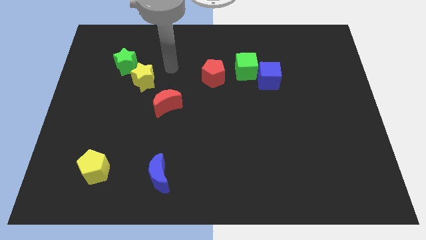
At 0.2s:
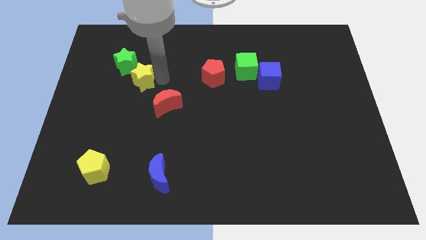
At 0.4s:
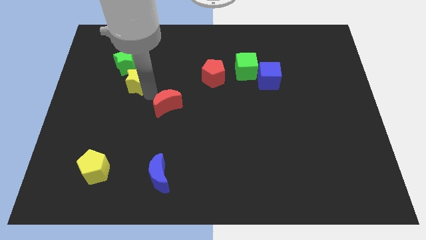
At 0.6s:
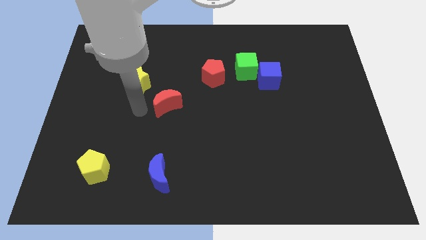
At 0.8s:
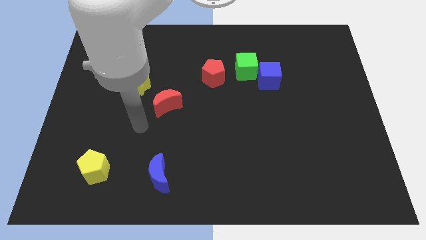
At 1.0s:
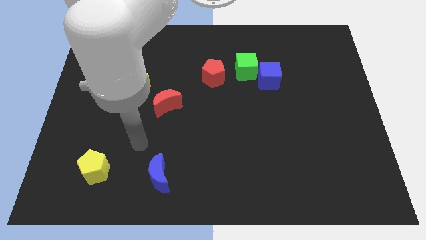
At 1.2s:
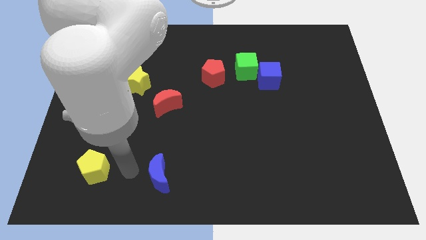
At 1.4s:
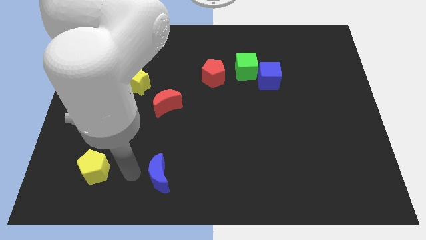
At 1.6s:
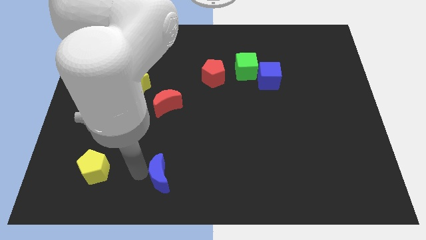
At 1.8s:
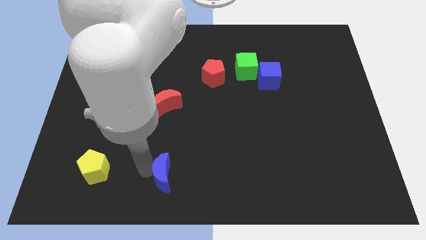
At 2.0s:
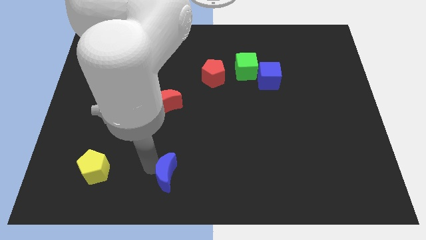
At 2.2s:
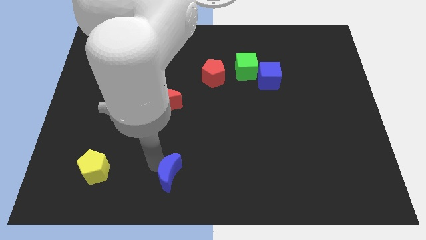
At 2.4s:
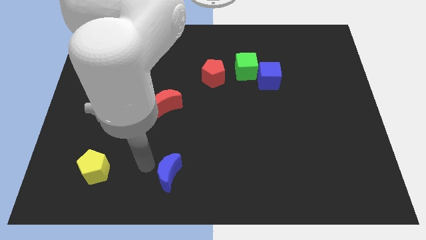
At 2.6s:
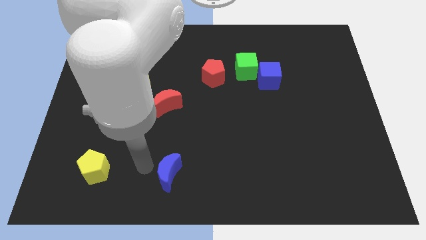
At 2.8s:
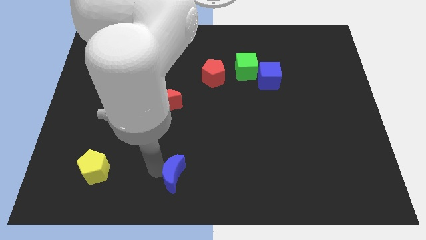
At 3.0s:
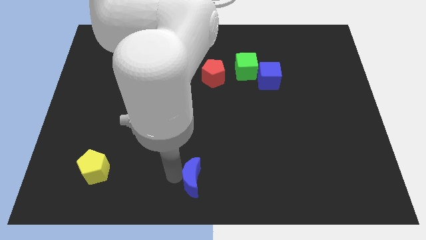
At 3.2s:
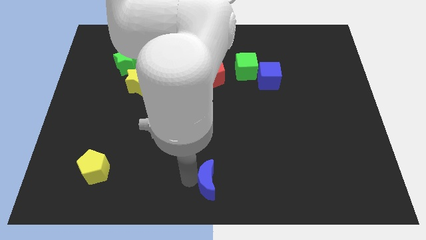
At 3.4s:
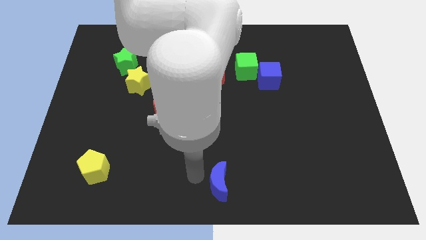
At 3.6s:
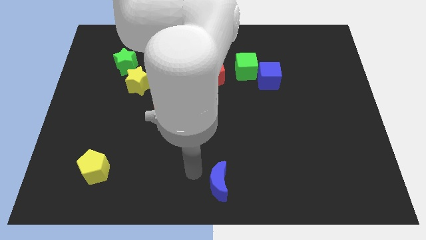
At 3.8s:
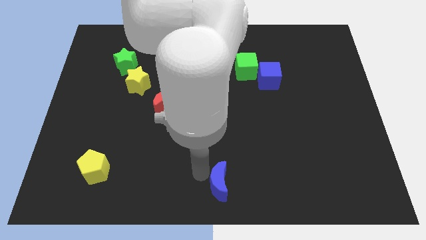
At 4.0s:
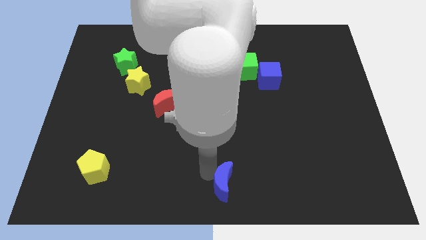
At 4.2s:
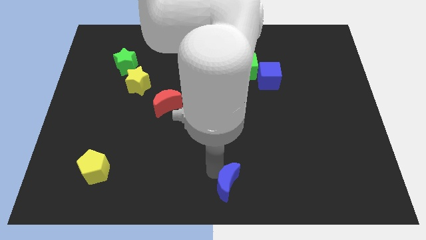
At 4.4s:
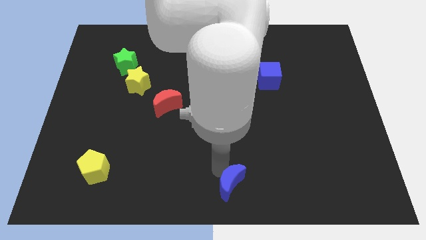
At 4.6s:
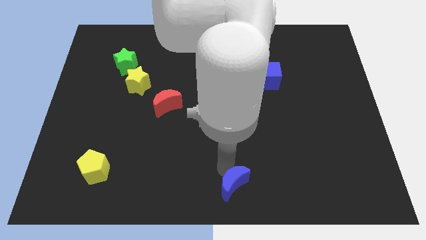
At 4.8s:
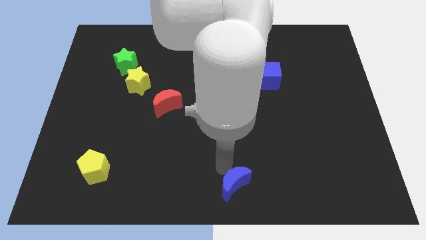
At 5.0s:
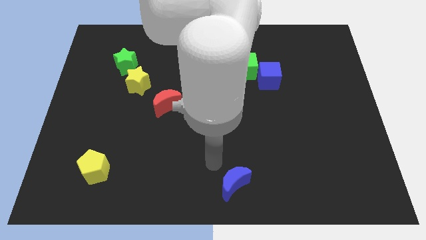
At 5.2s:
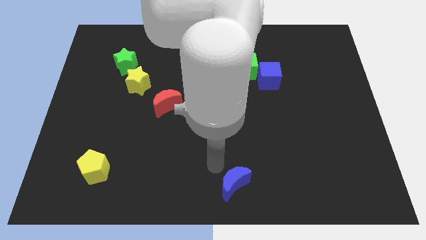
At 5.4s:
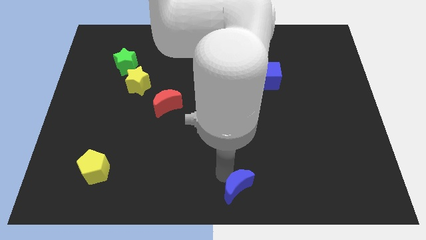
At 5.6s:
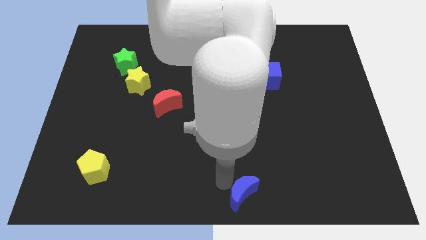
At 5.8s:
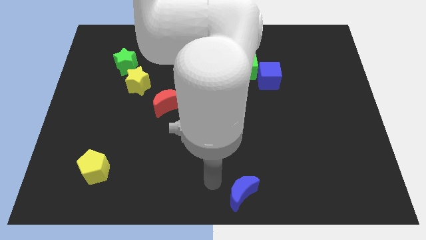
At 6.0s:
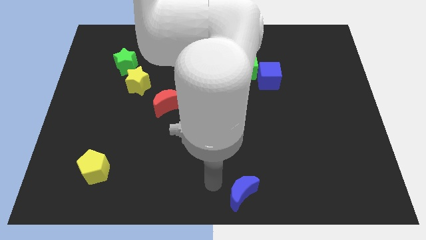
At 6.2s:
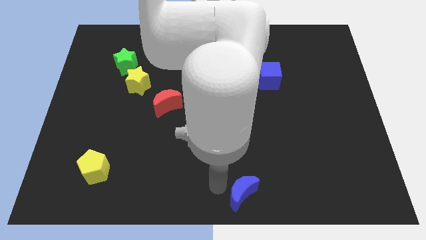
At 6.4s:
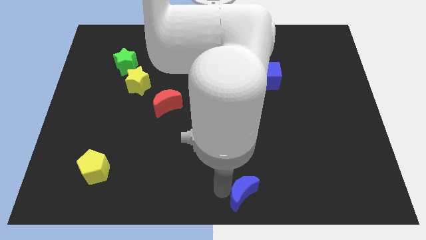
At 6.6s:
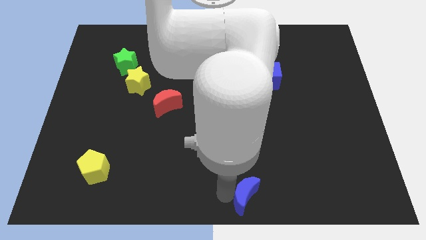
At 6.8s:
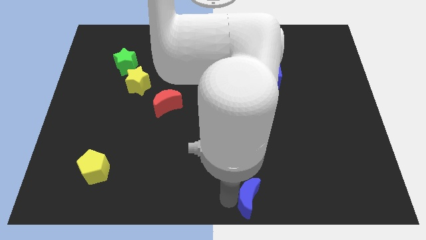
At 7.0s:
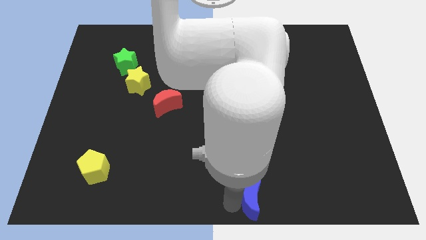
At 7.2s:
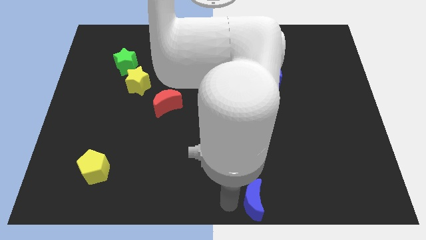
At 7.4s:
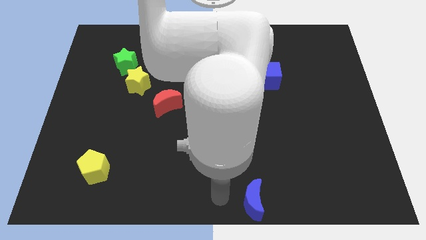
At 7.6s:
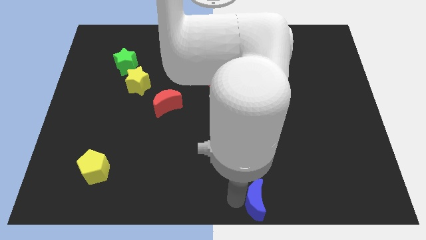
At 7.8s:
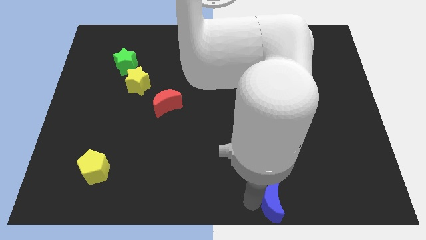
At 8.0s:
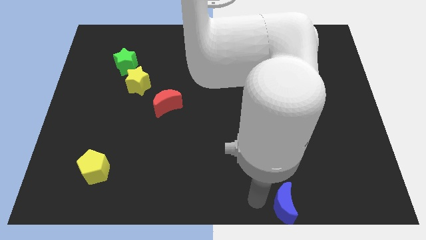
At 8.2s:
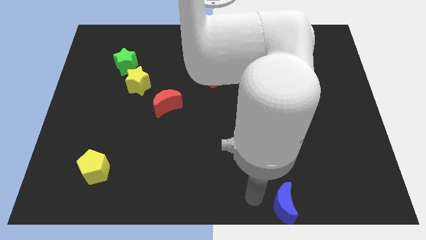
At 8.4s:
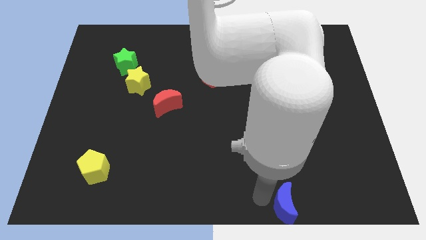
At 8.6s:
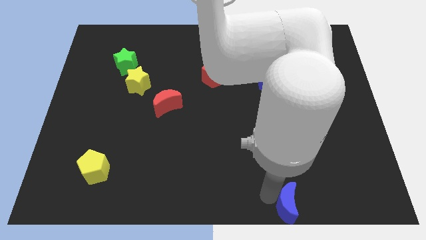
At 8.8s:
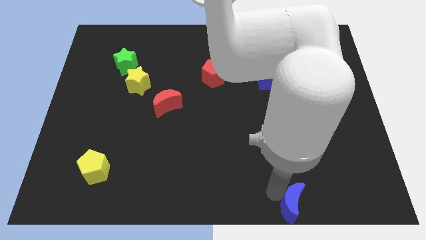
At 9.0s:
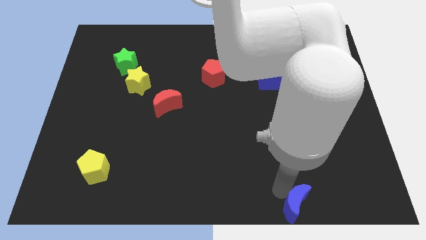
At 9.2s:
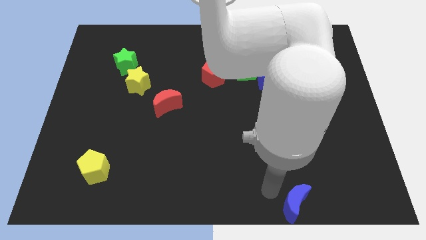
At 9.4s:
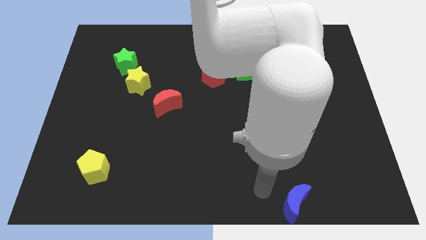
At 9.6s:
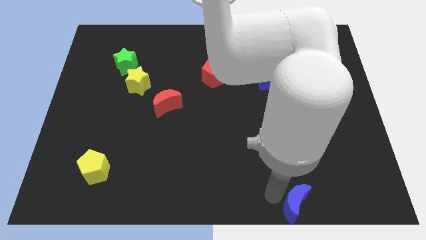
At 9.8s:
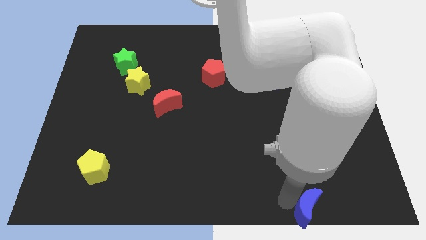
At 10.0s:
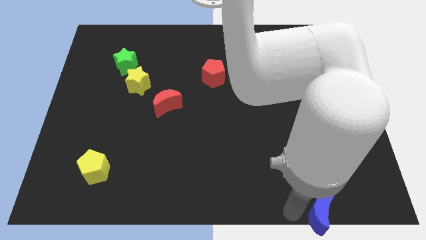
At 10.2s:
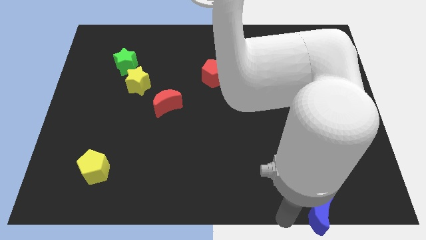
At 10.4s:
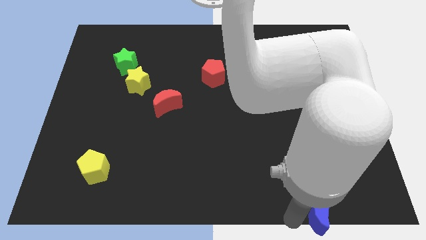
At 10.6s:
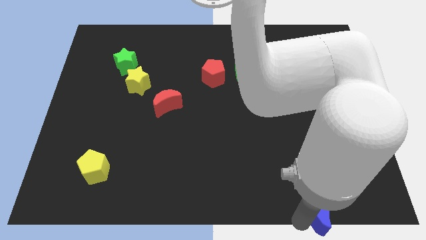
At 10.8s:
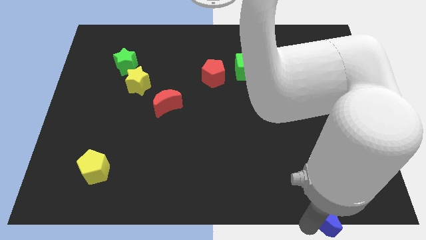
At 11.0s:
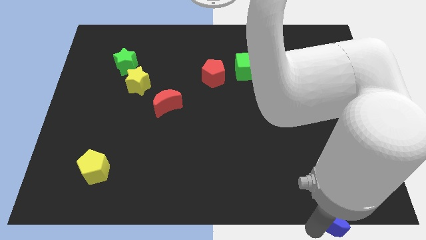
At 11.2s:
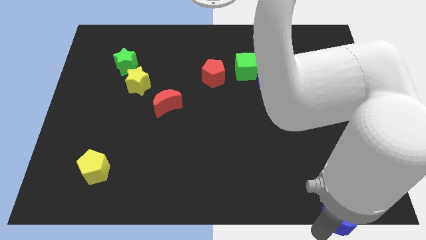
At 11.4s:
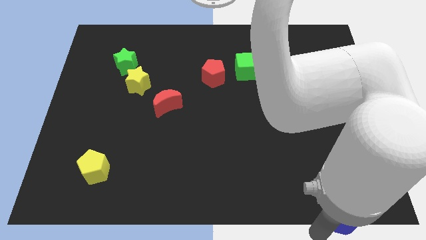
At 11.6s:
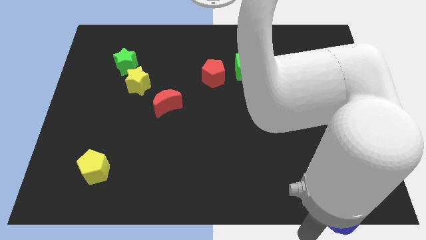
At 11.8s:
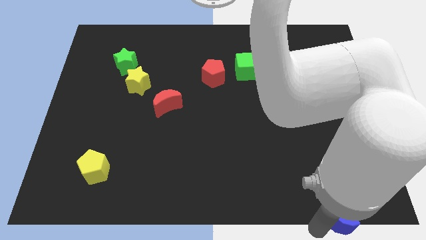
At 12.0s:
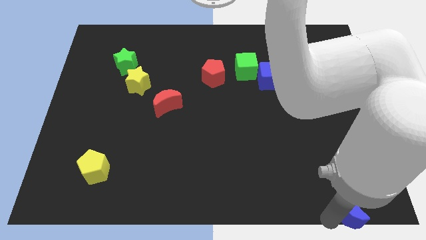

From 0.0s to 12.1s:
push the blue moon to the lower right corner

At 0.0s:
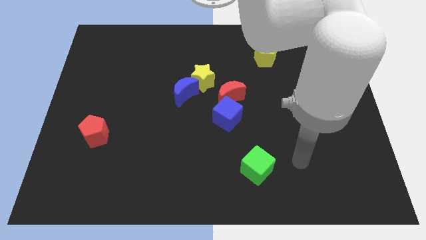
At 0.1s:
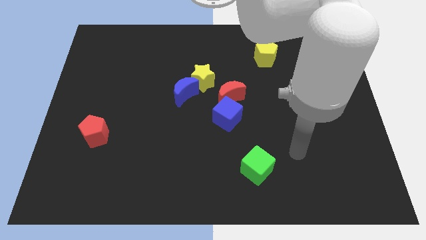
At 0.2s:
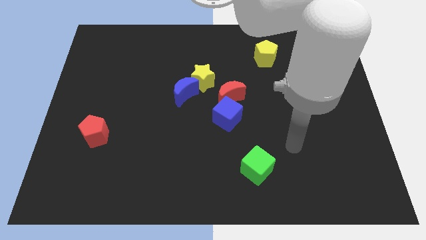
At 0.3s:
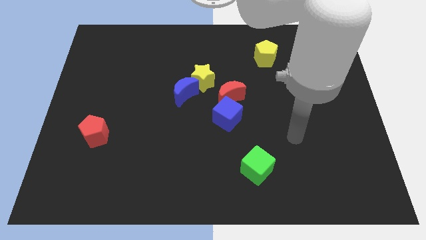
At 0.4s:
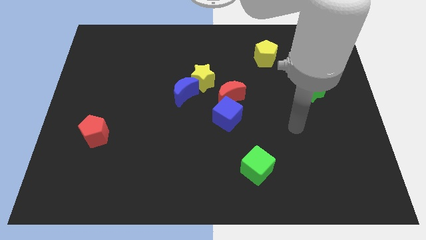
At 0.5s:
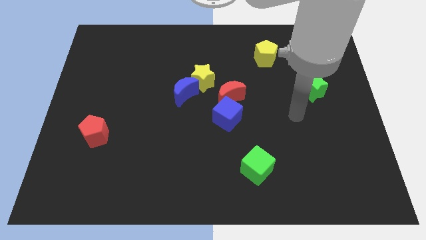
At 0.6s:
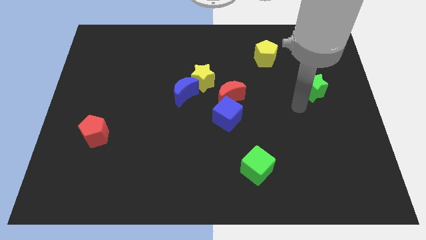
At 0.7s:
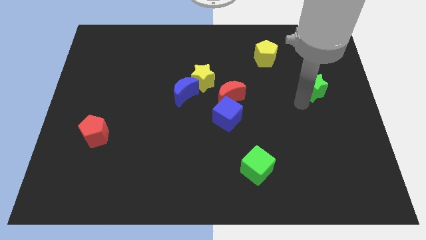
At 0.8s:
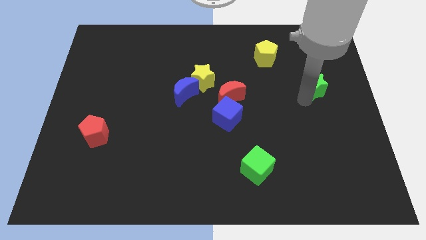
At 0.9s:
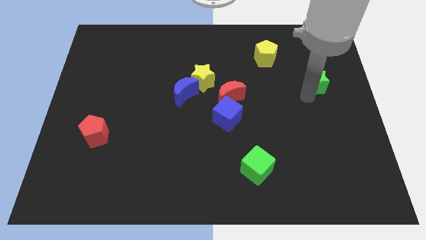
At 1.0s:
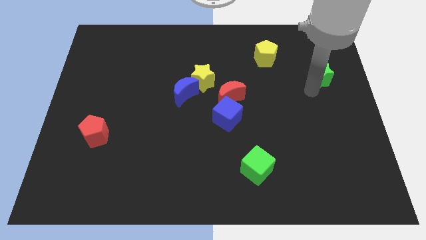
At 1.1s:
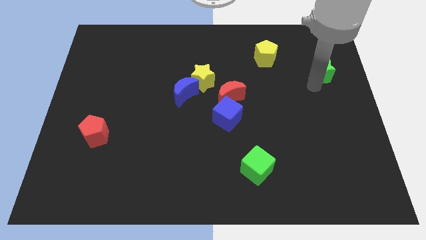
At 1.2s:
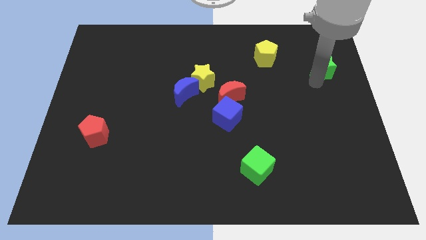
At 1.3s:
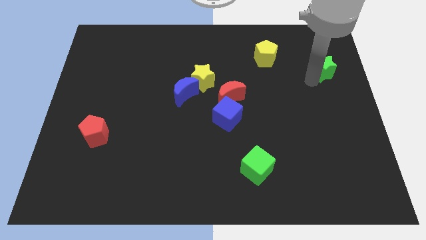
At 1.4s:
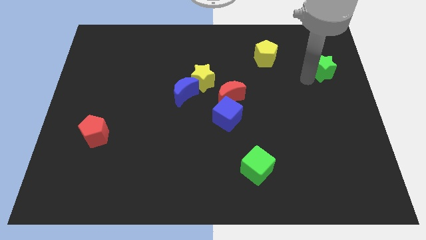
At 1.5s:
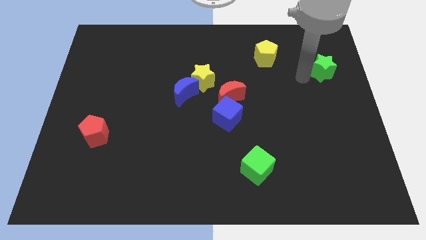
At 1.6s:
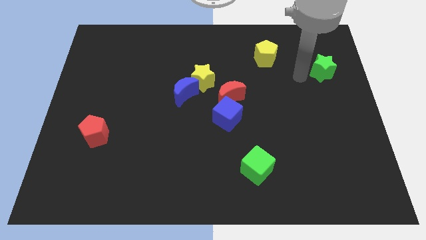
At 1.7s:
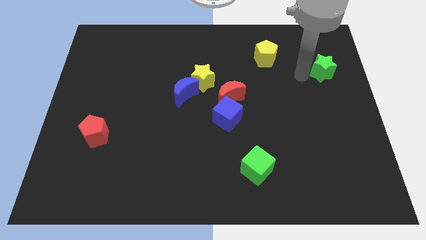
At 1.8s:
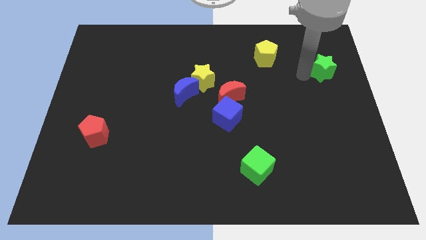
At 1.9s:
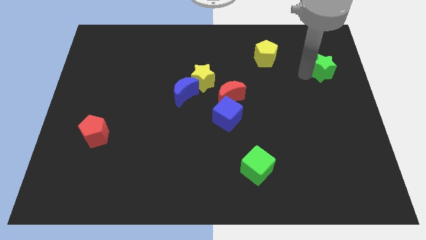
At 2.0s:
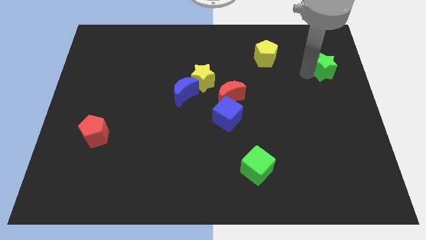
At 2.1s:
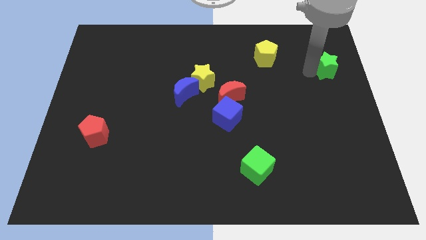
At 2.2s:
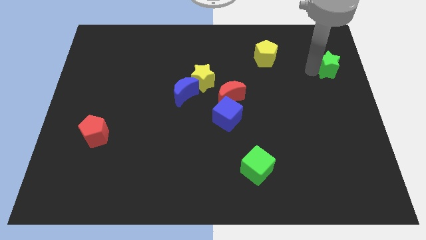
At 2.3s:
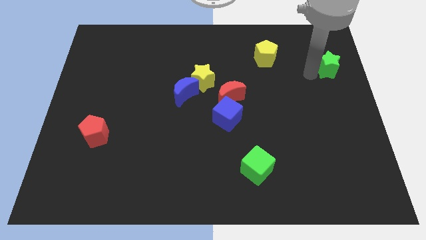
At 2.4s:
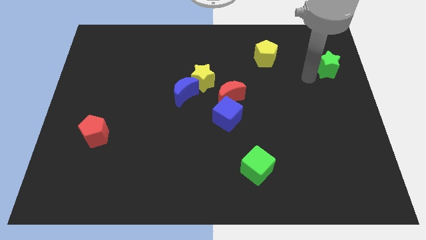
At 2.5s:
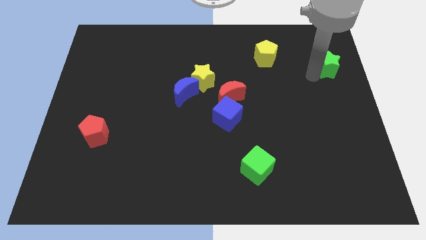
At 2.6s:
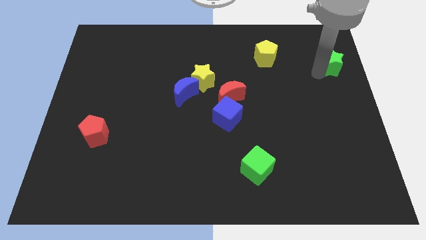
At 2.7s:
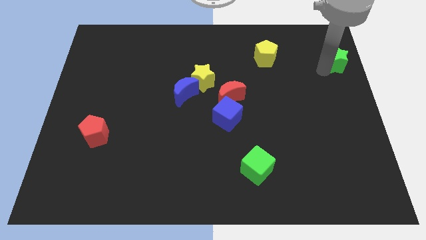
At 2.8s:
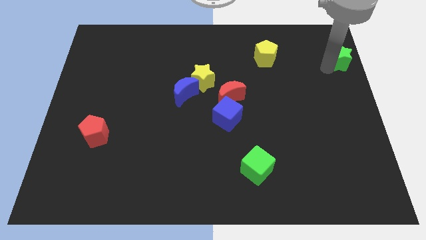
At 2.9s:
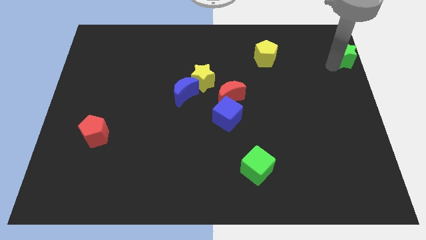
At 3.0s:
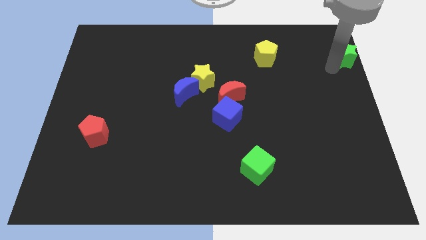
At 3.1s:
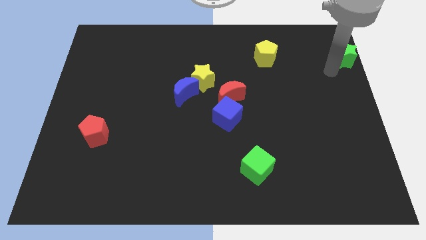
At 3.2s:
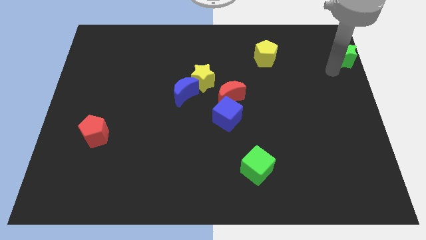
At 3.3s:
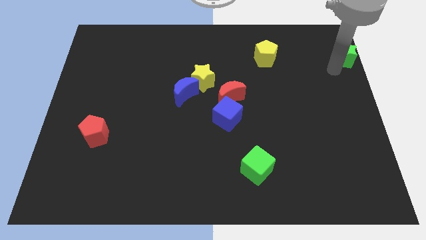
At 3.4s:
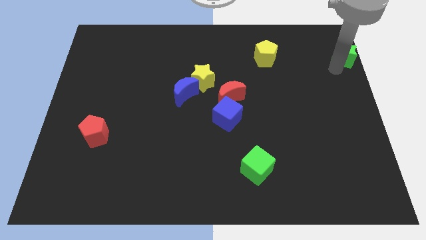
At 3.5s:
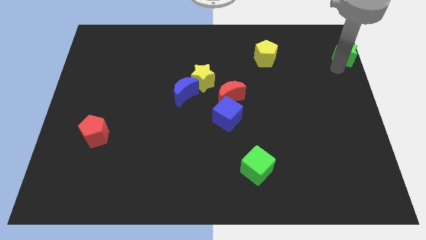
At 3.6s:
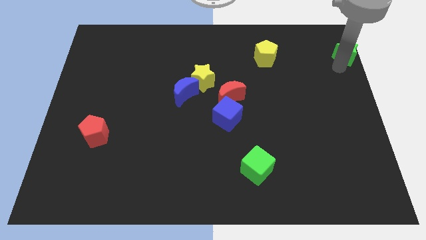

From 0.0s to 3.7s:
put the green star to the top right
